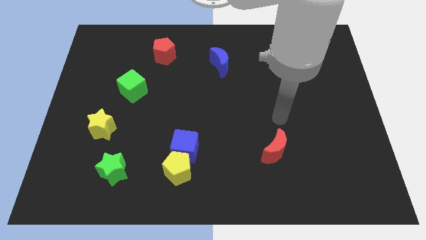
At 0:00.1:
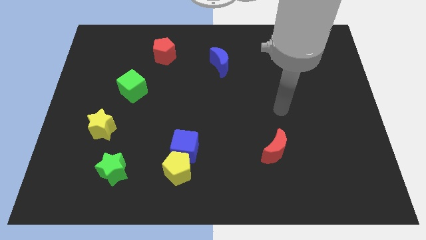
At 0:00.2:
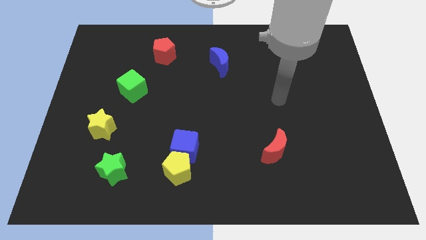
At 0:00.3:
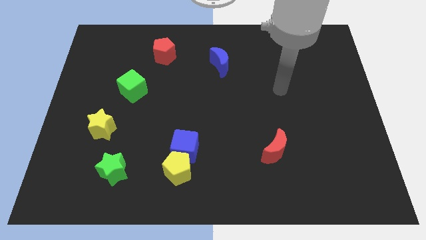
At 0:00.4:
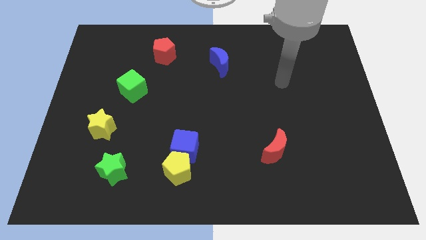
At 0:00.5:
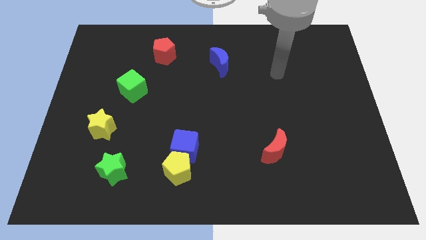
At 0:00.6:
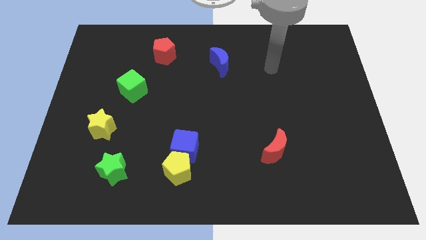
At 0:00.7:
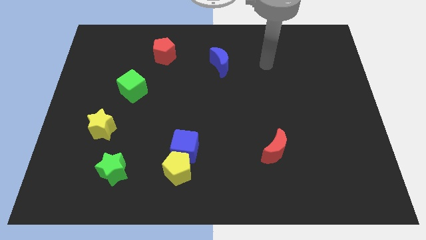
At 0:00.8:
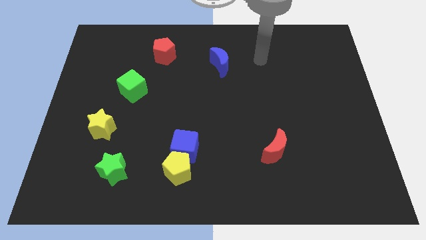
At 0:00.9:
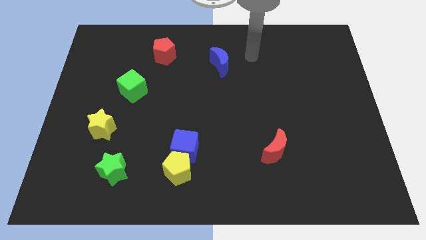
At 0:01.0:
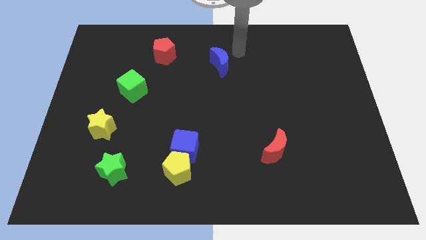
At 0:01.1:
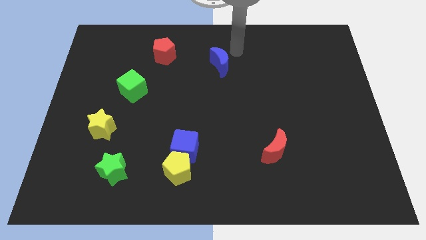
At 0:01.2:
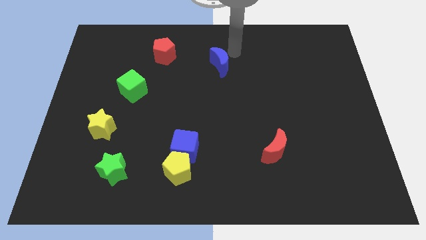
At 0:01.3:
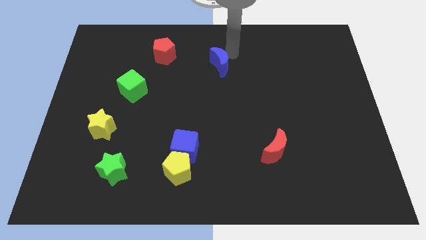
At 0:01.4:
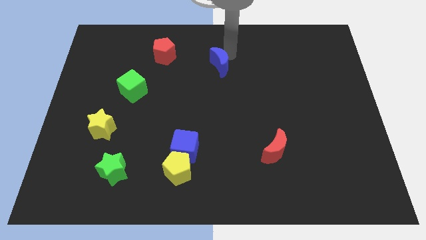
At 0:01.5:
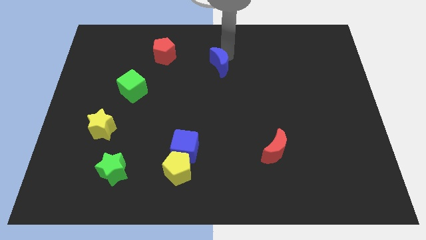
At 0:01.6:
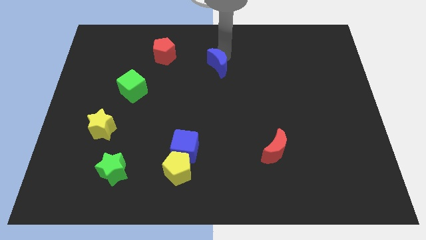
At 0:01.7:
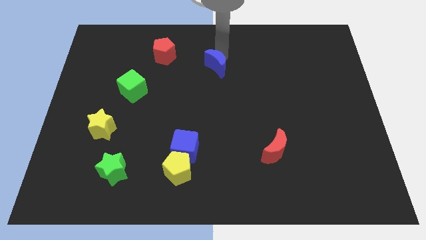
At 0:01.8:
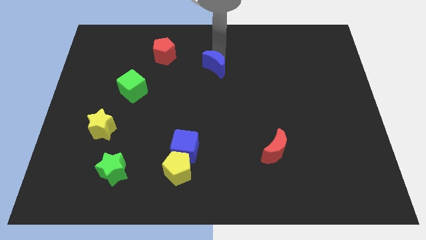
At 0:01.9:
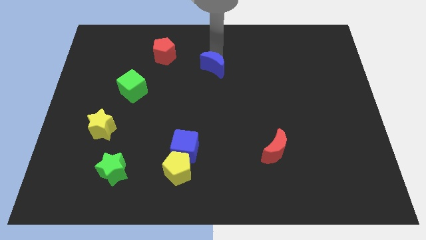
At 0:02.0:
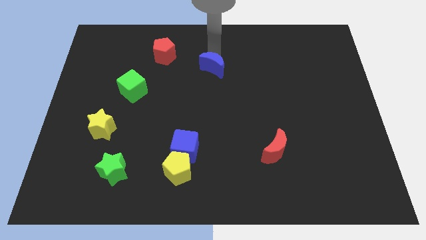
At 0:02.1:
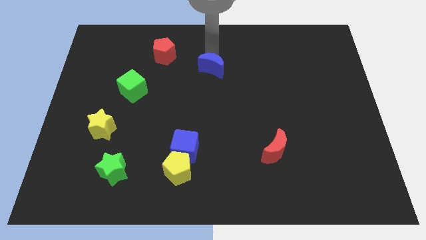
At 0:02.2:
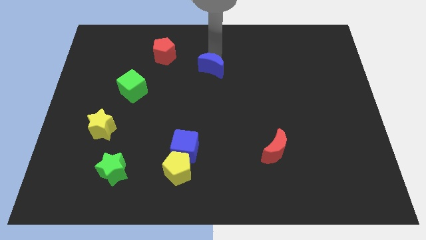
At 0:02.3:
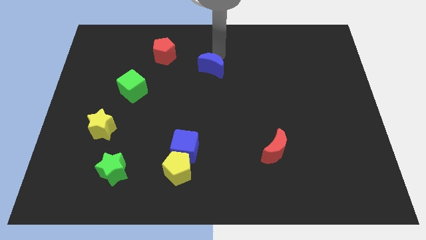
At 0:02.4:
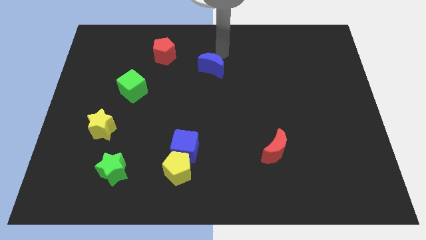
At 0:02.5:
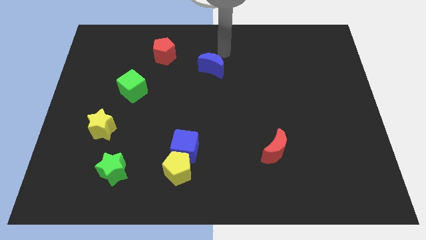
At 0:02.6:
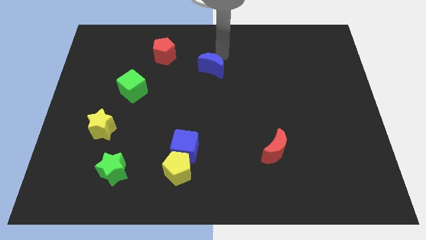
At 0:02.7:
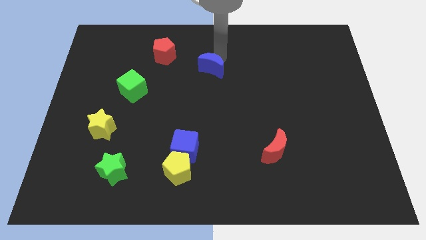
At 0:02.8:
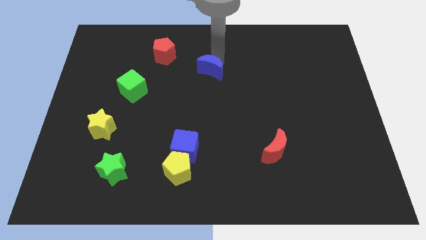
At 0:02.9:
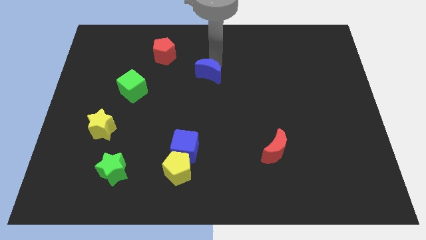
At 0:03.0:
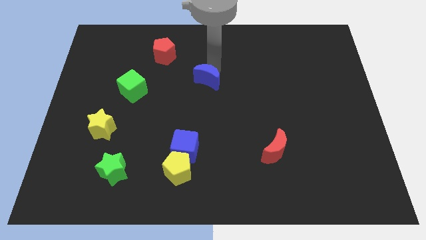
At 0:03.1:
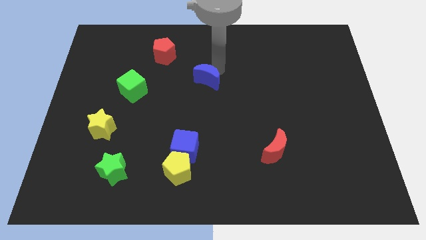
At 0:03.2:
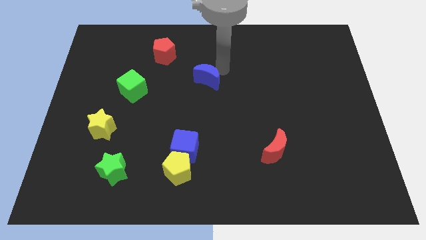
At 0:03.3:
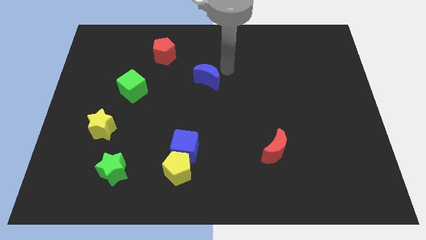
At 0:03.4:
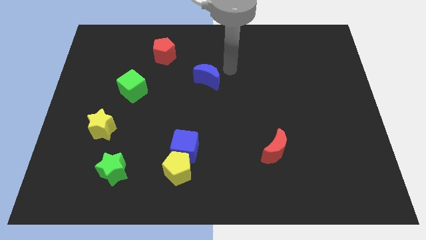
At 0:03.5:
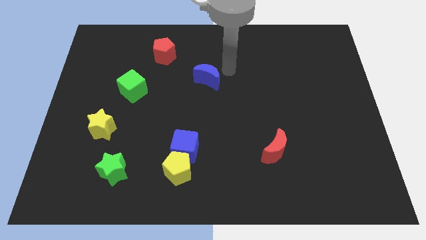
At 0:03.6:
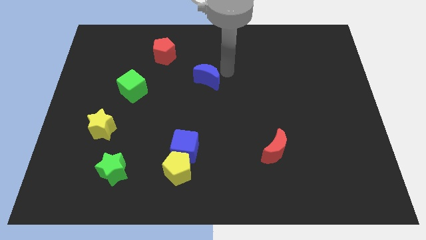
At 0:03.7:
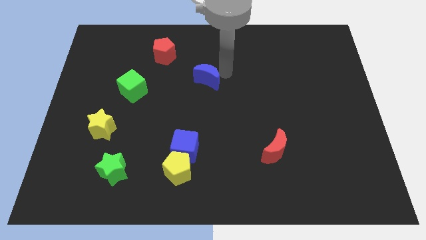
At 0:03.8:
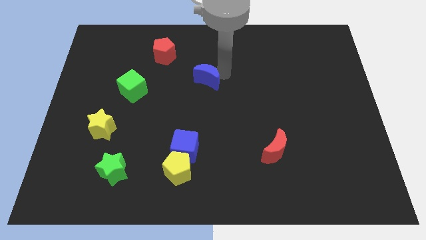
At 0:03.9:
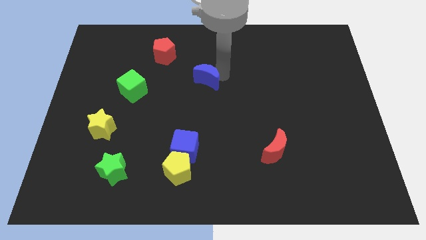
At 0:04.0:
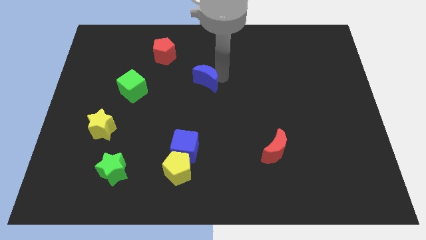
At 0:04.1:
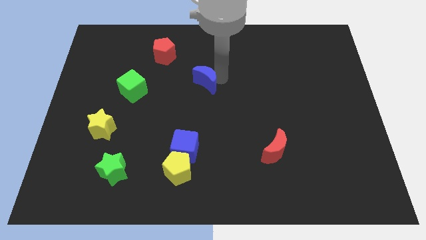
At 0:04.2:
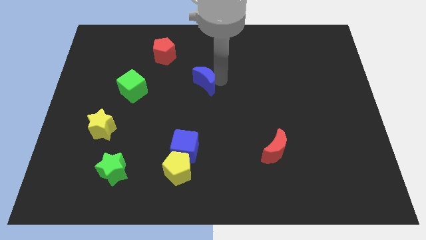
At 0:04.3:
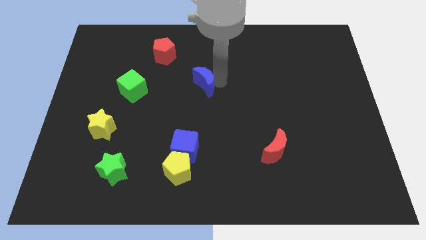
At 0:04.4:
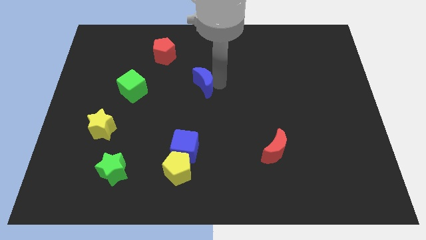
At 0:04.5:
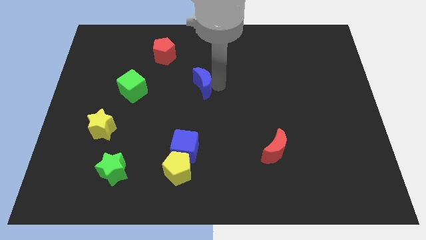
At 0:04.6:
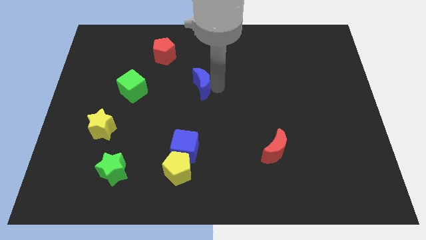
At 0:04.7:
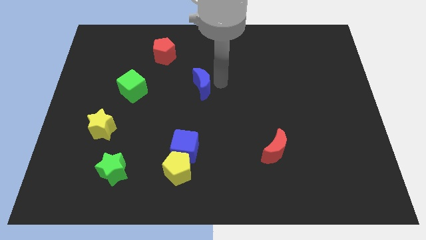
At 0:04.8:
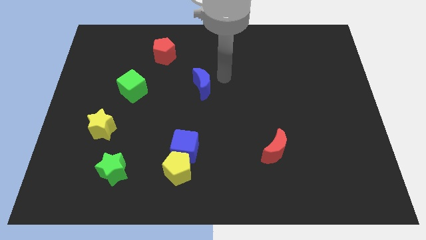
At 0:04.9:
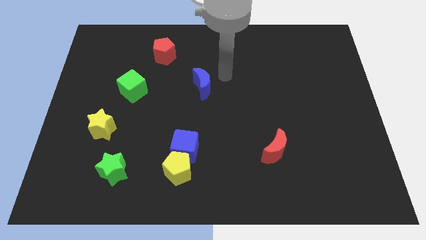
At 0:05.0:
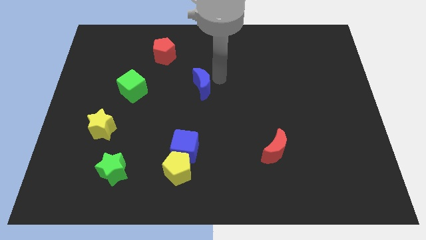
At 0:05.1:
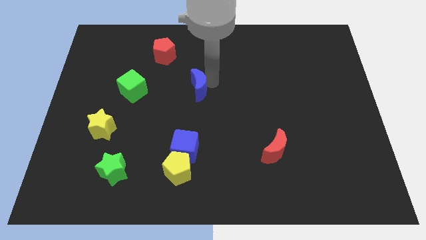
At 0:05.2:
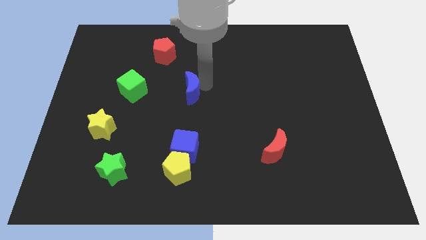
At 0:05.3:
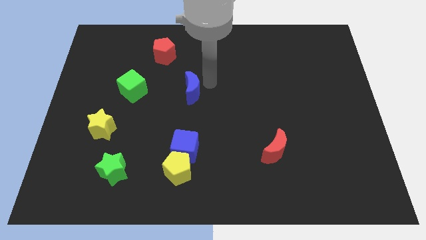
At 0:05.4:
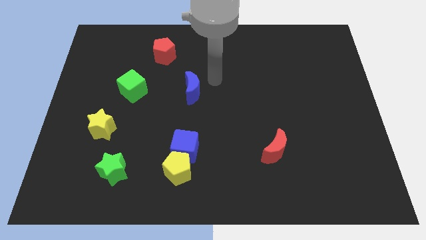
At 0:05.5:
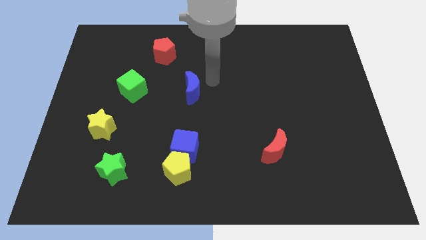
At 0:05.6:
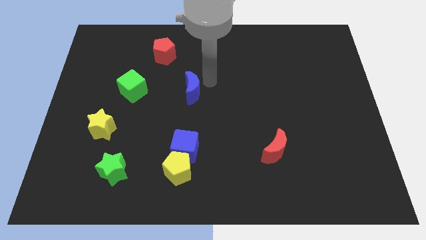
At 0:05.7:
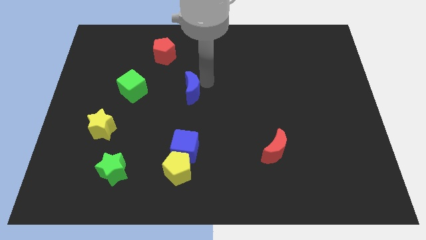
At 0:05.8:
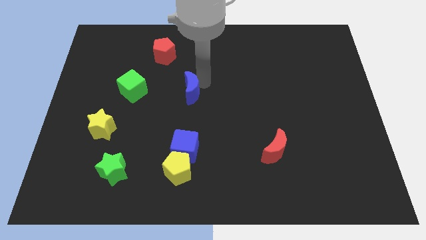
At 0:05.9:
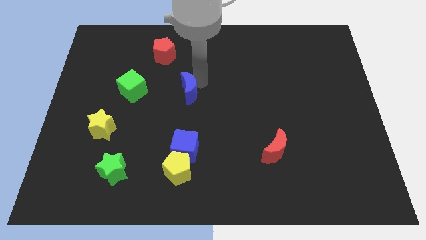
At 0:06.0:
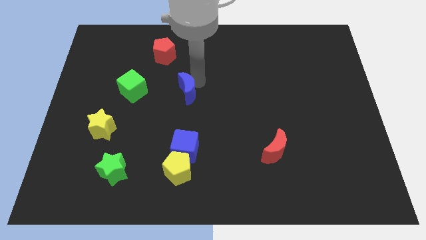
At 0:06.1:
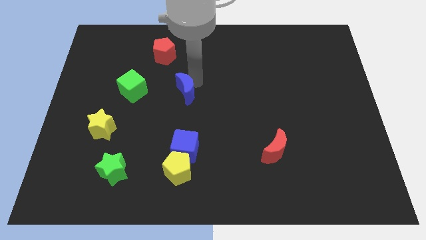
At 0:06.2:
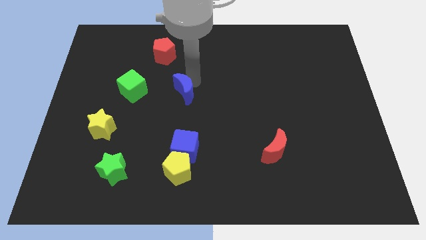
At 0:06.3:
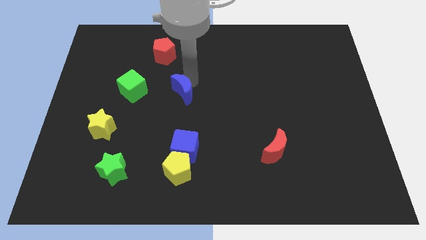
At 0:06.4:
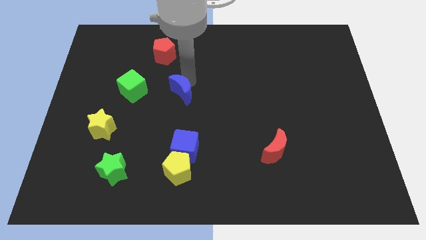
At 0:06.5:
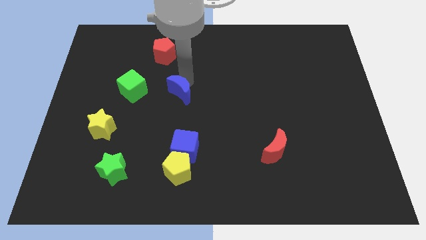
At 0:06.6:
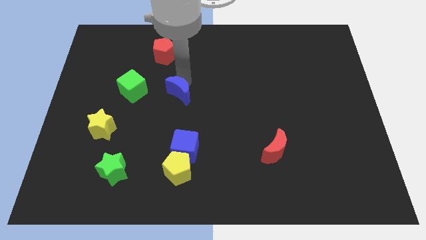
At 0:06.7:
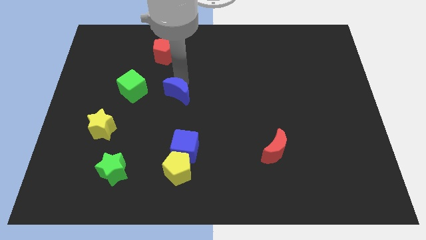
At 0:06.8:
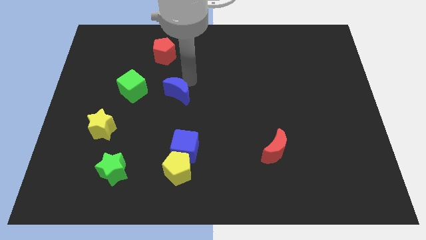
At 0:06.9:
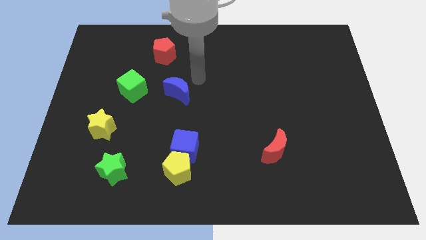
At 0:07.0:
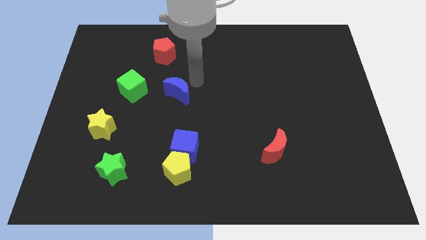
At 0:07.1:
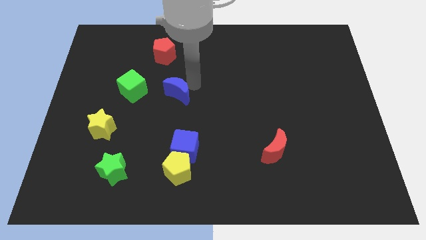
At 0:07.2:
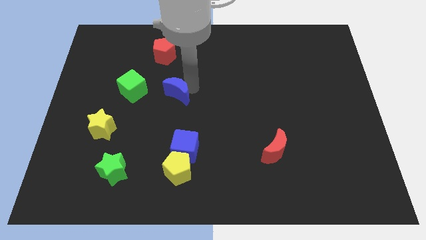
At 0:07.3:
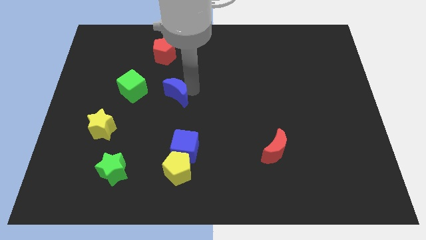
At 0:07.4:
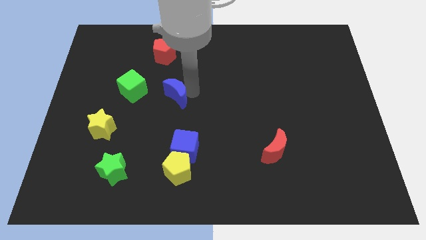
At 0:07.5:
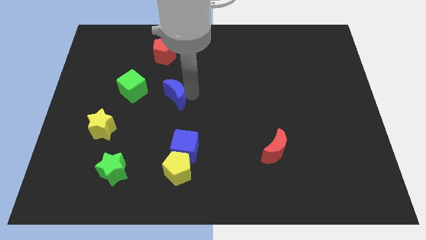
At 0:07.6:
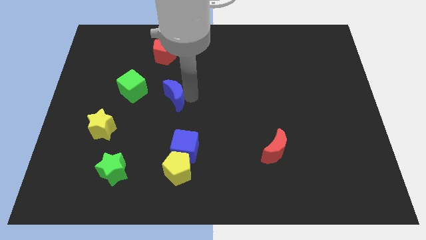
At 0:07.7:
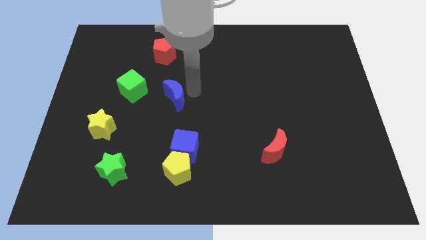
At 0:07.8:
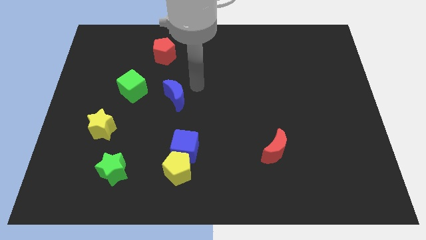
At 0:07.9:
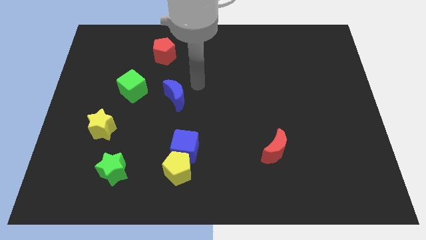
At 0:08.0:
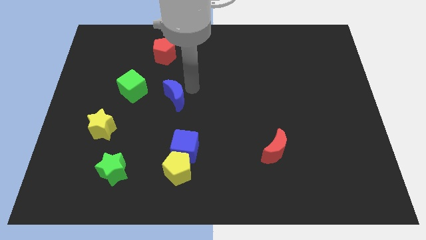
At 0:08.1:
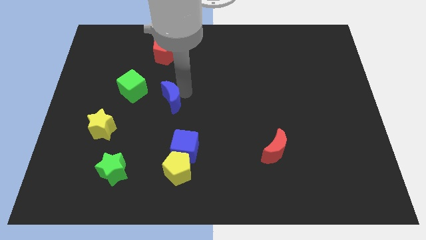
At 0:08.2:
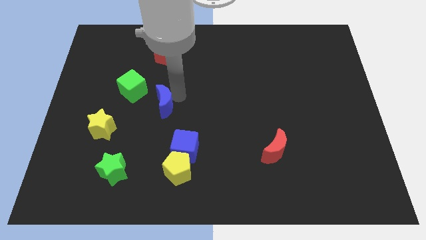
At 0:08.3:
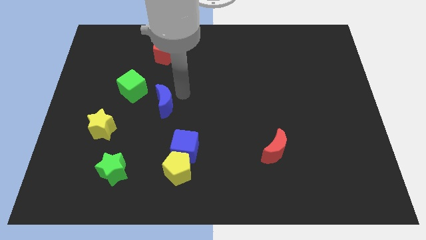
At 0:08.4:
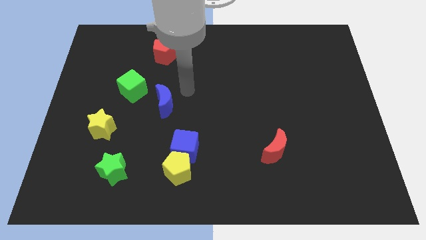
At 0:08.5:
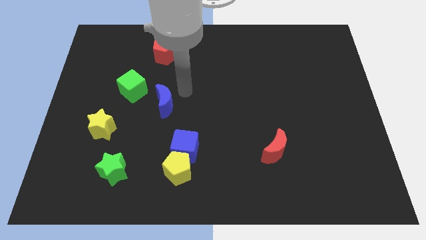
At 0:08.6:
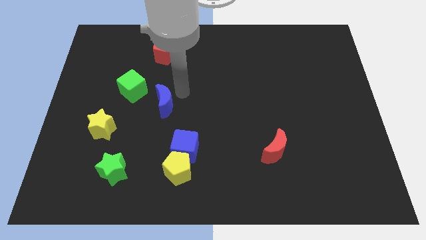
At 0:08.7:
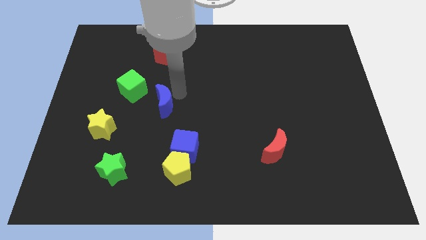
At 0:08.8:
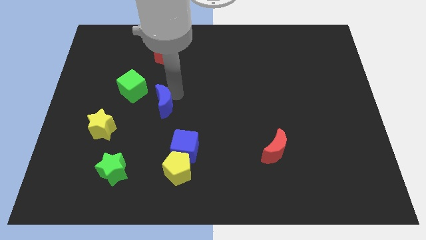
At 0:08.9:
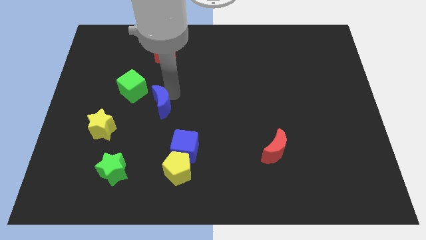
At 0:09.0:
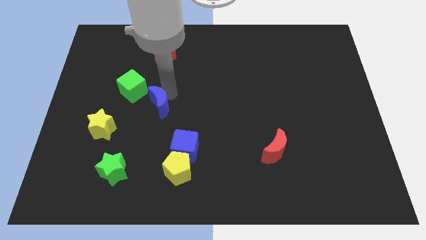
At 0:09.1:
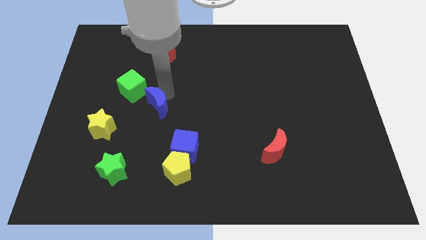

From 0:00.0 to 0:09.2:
slide the blue moon diagonally downwards and left
